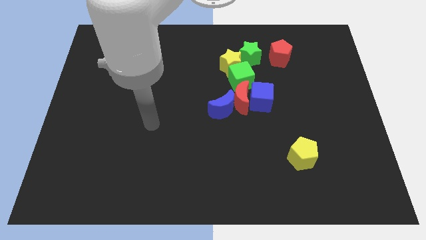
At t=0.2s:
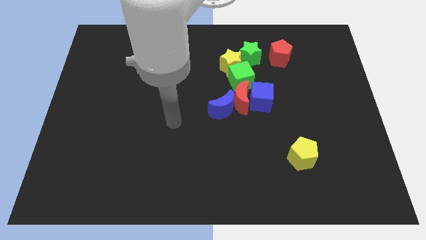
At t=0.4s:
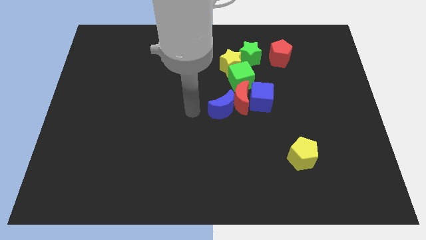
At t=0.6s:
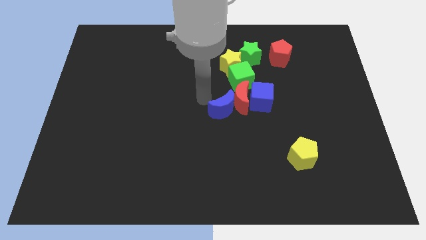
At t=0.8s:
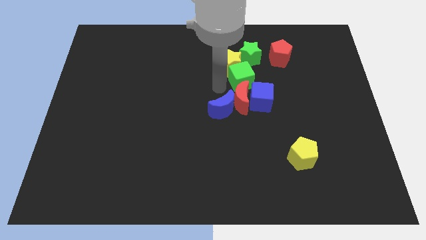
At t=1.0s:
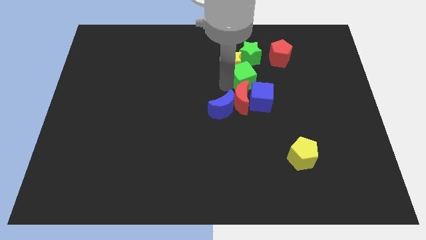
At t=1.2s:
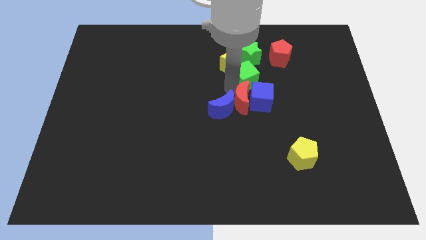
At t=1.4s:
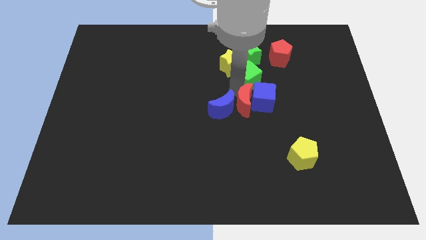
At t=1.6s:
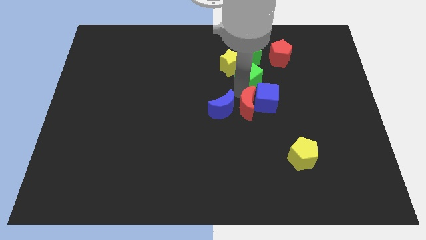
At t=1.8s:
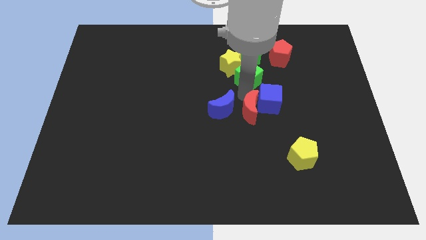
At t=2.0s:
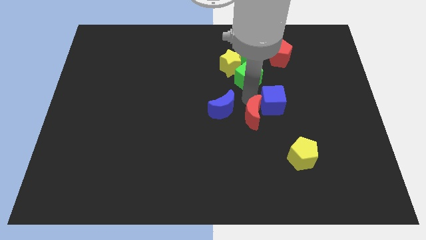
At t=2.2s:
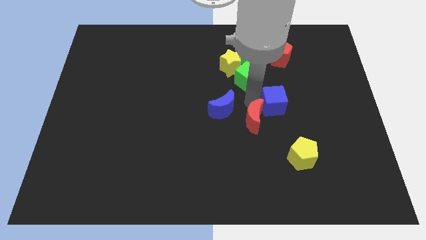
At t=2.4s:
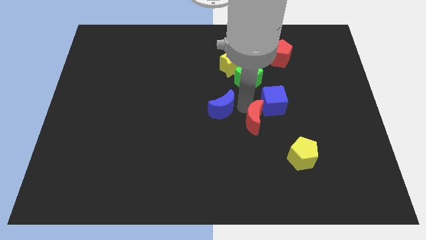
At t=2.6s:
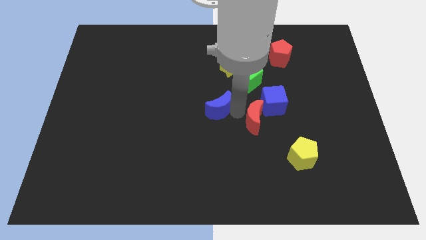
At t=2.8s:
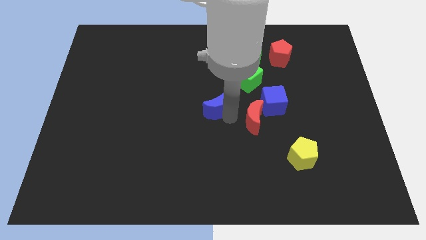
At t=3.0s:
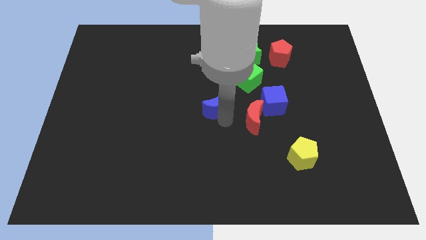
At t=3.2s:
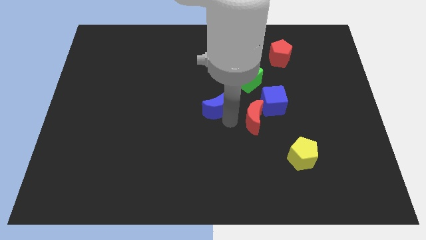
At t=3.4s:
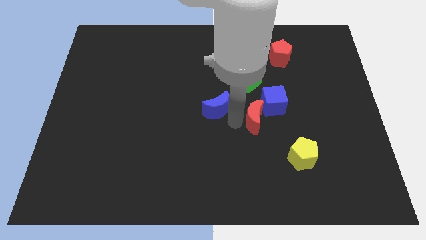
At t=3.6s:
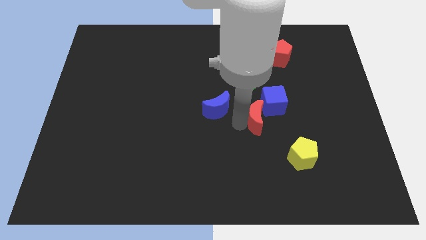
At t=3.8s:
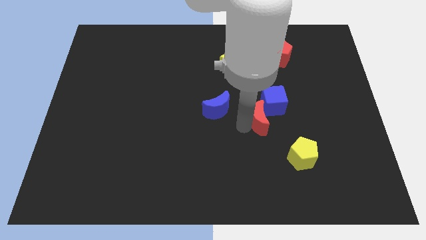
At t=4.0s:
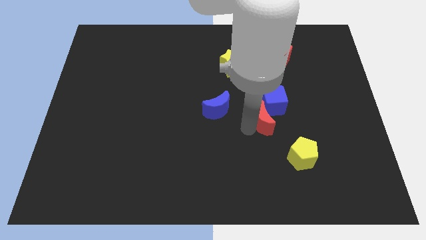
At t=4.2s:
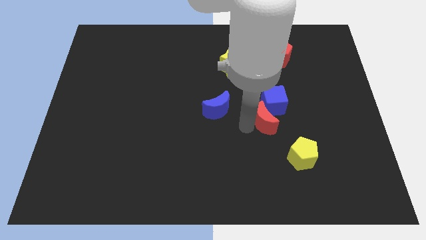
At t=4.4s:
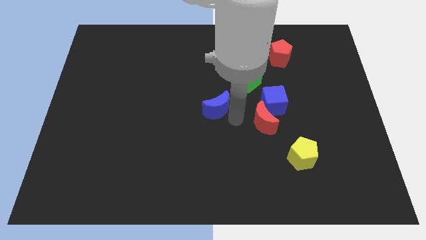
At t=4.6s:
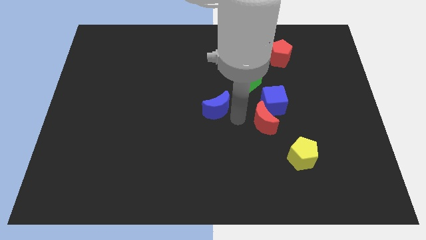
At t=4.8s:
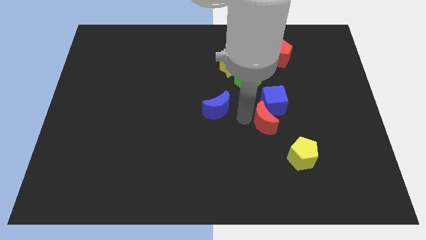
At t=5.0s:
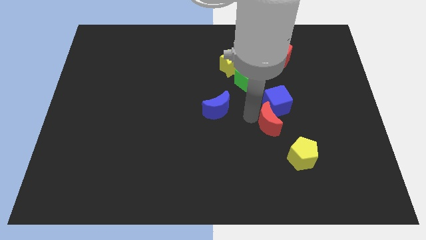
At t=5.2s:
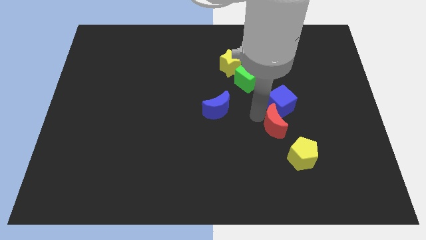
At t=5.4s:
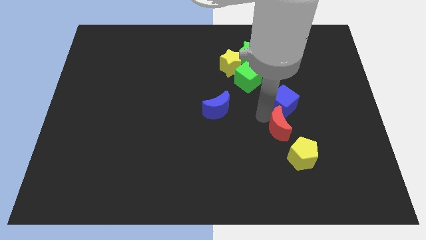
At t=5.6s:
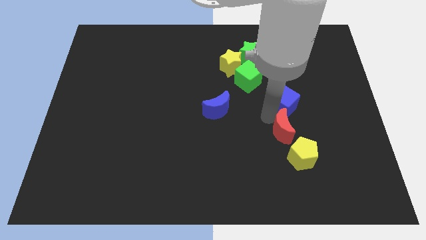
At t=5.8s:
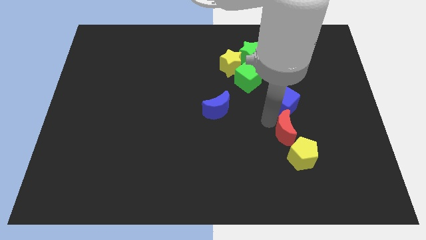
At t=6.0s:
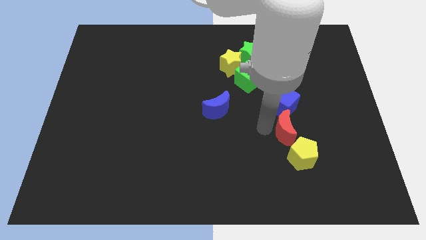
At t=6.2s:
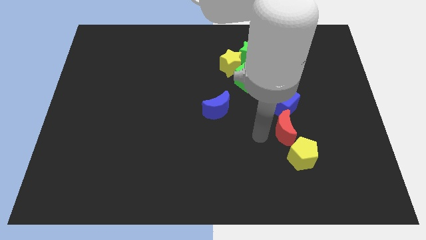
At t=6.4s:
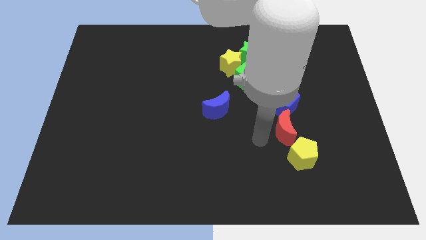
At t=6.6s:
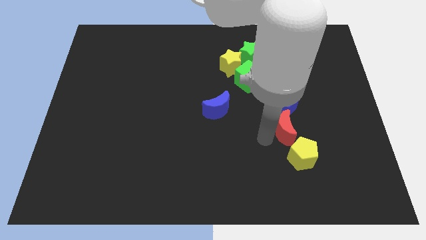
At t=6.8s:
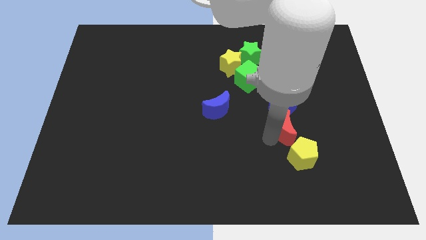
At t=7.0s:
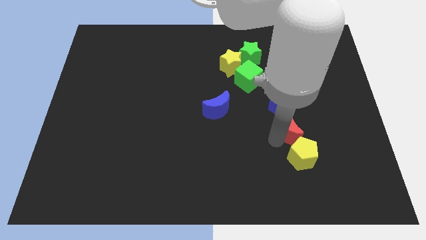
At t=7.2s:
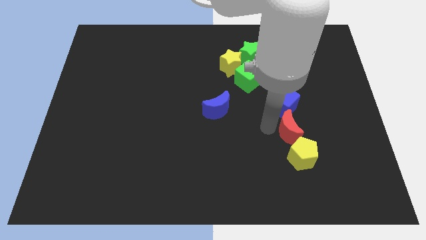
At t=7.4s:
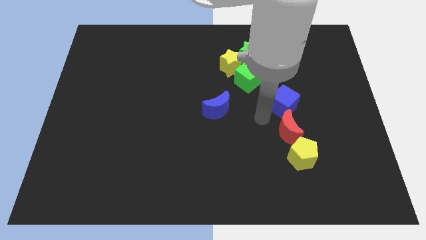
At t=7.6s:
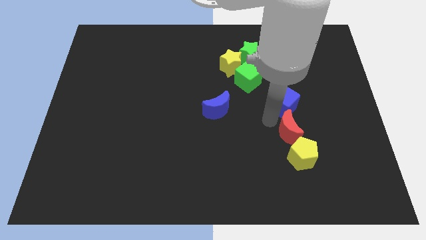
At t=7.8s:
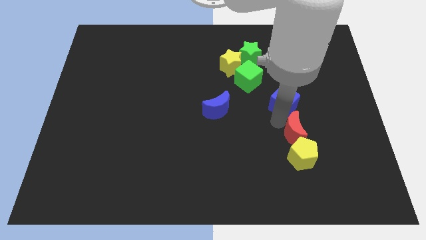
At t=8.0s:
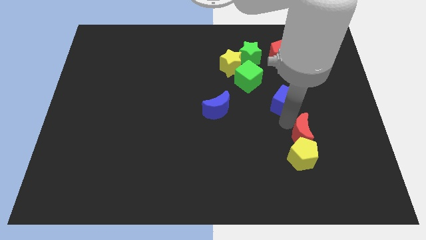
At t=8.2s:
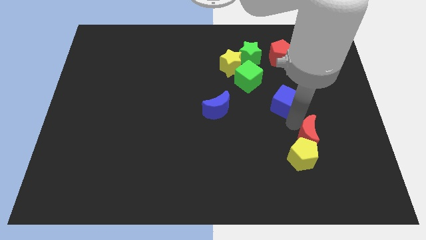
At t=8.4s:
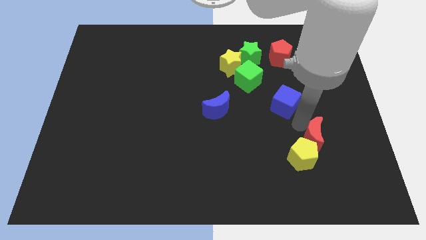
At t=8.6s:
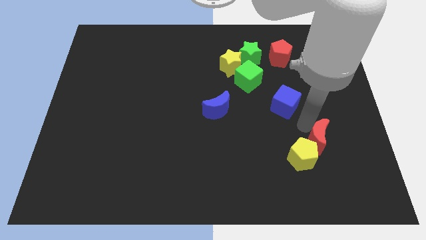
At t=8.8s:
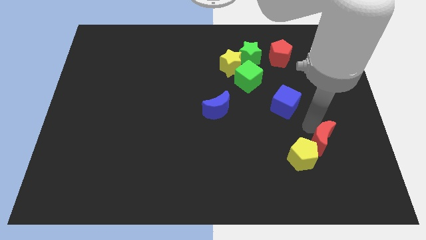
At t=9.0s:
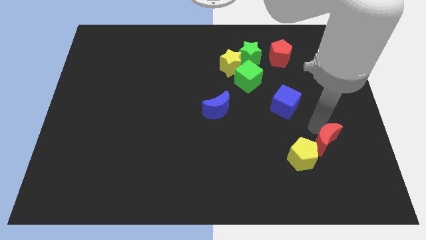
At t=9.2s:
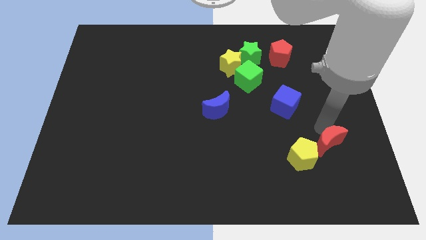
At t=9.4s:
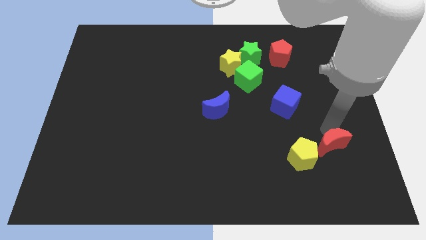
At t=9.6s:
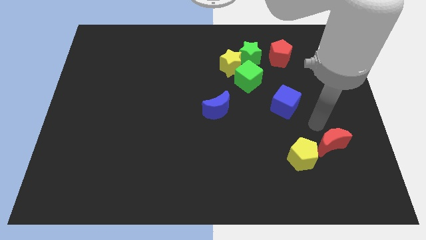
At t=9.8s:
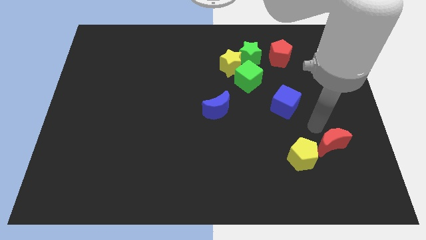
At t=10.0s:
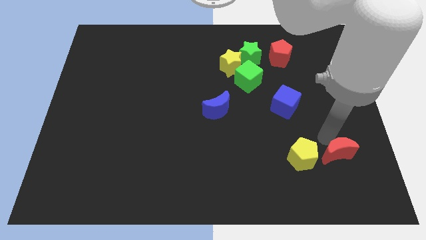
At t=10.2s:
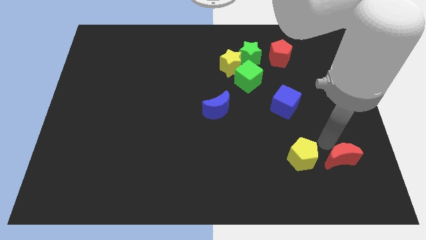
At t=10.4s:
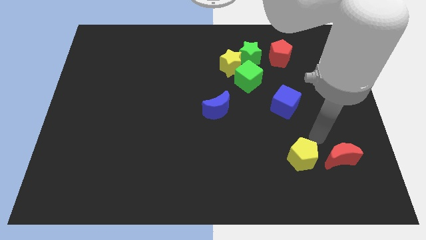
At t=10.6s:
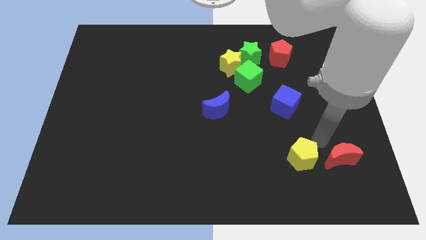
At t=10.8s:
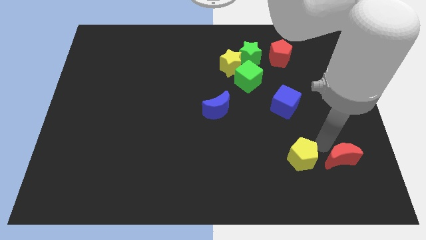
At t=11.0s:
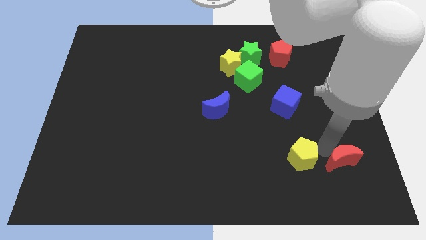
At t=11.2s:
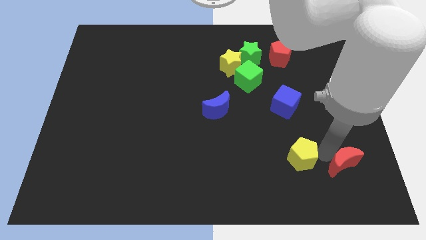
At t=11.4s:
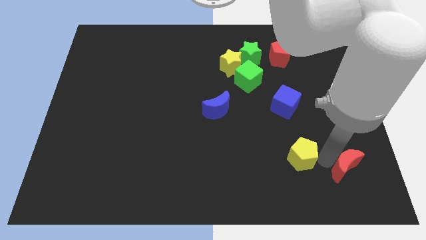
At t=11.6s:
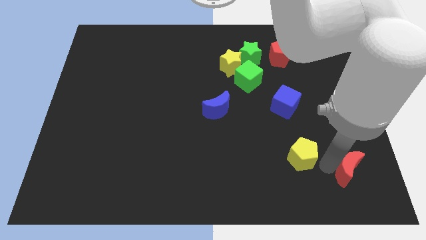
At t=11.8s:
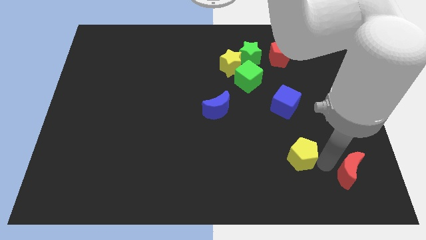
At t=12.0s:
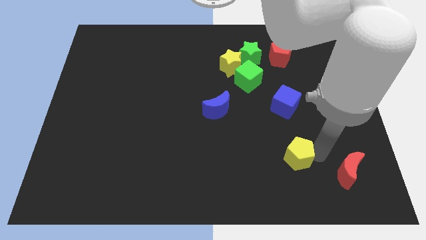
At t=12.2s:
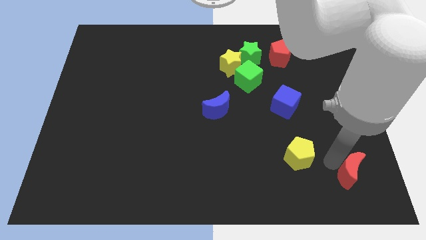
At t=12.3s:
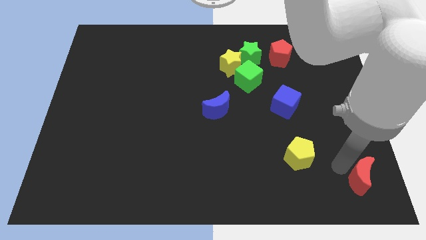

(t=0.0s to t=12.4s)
slide the red moon to the bottom right
